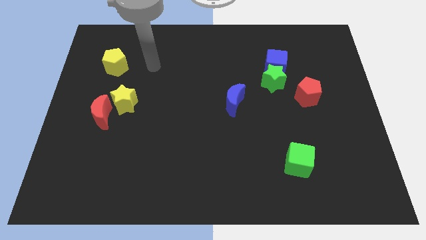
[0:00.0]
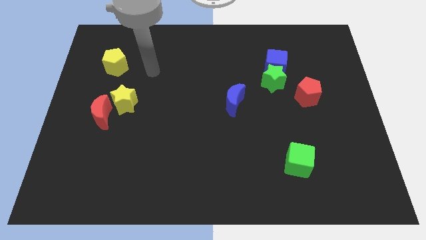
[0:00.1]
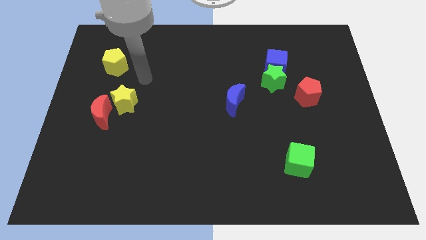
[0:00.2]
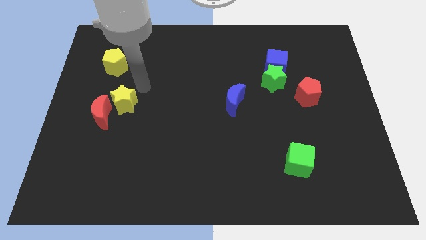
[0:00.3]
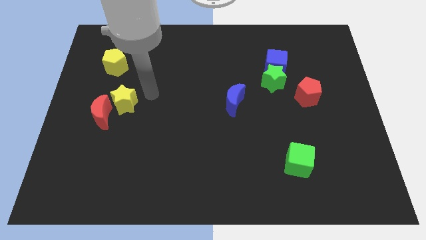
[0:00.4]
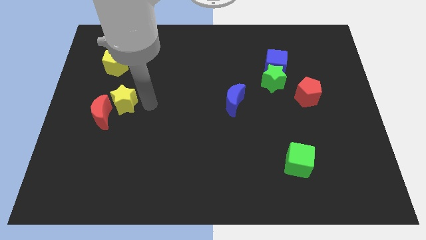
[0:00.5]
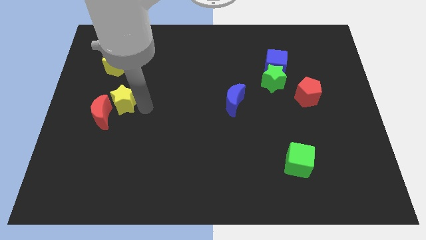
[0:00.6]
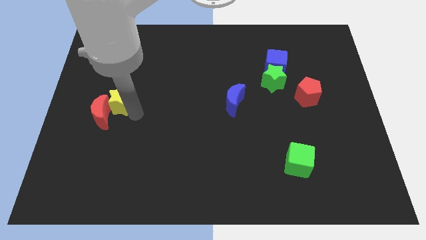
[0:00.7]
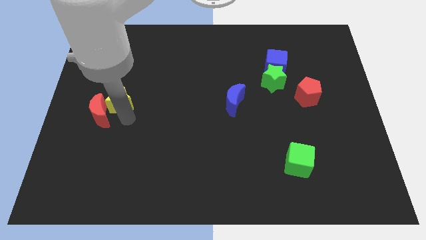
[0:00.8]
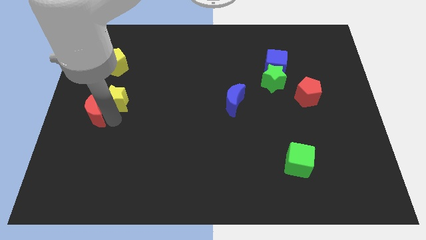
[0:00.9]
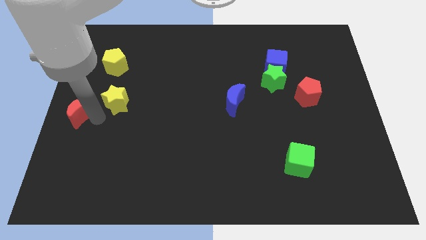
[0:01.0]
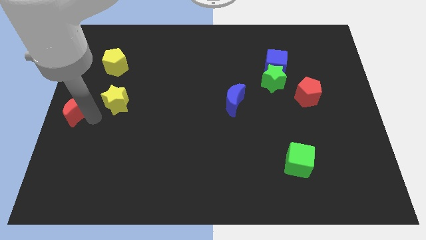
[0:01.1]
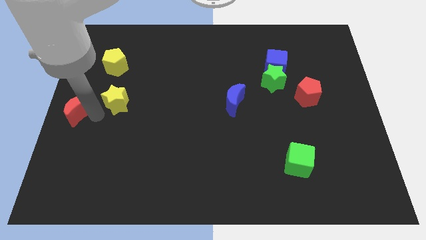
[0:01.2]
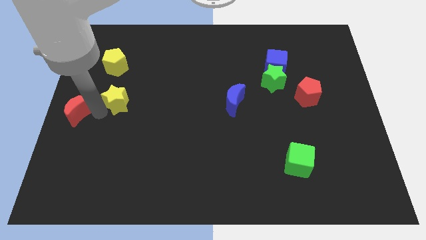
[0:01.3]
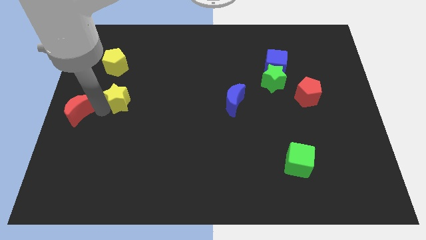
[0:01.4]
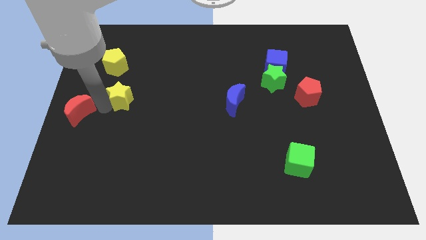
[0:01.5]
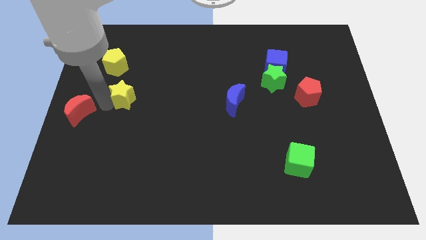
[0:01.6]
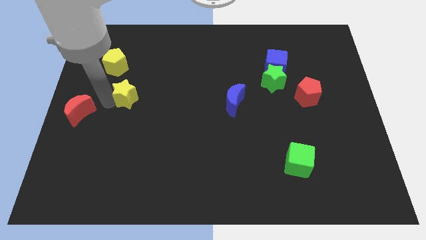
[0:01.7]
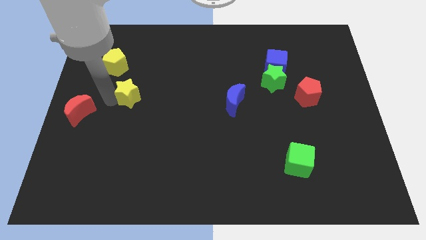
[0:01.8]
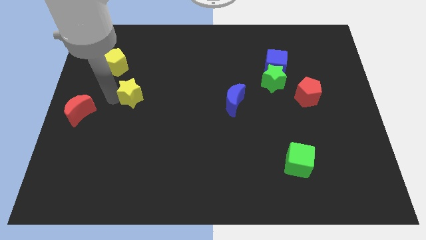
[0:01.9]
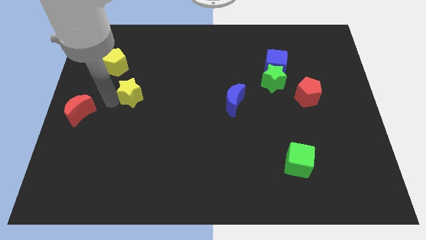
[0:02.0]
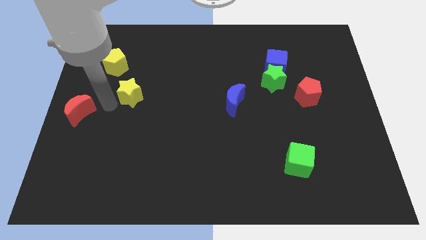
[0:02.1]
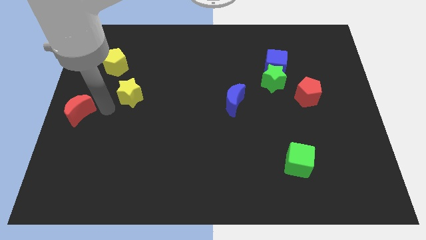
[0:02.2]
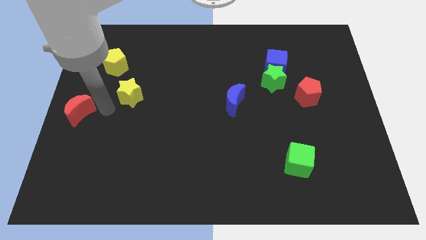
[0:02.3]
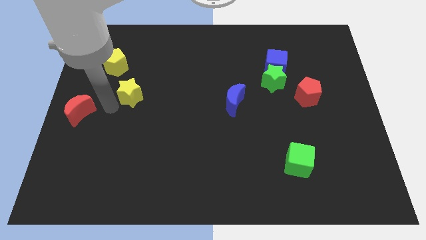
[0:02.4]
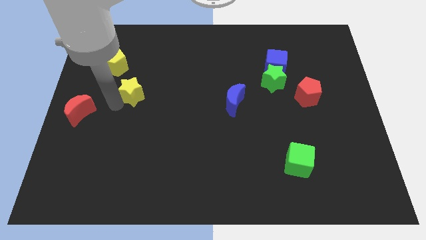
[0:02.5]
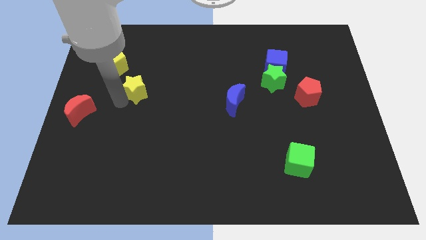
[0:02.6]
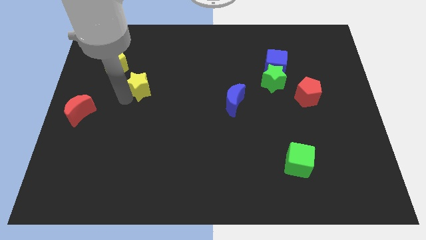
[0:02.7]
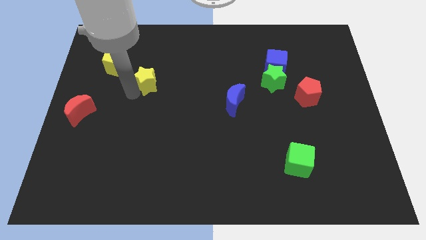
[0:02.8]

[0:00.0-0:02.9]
move the yellow star a little bit upwards and right diagonally

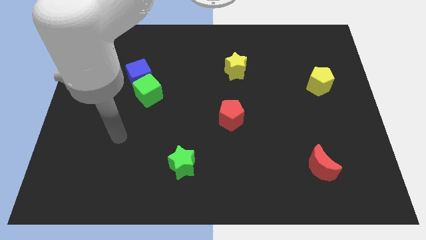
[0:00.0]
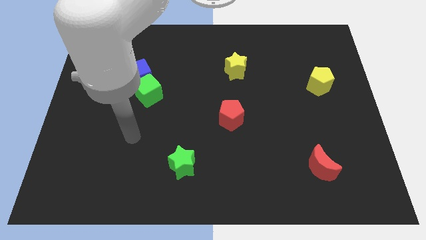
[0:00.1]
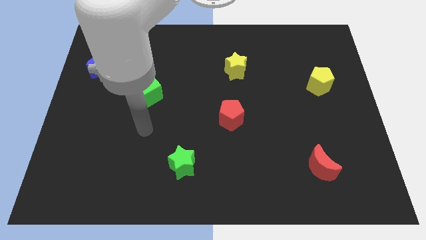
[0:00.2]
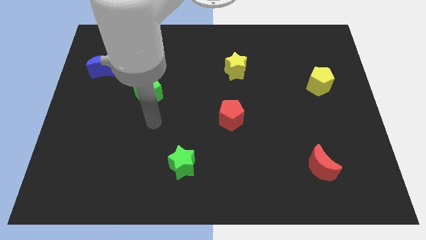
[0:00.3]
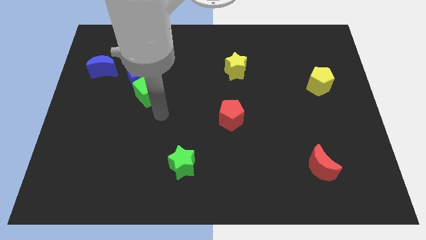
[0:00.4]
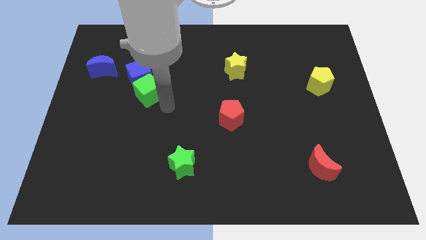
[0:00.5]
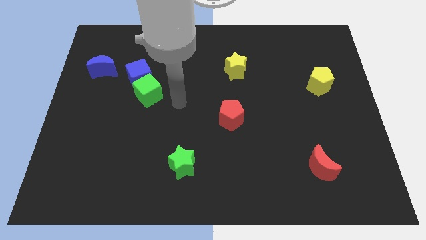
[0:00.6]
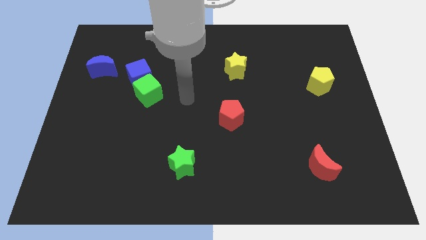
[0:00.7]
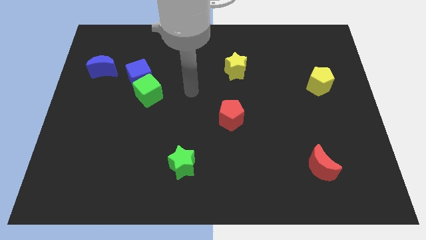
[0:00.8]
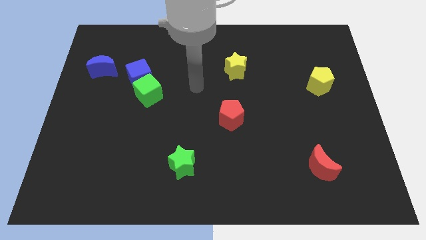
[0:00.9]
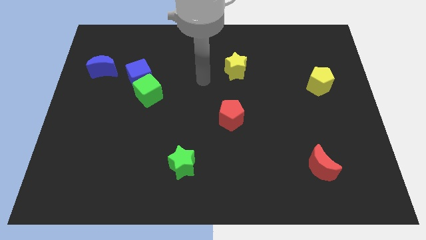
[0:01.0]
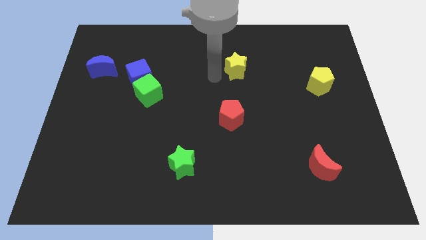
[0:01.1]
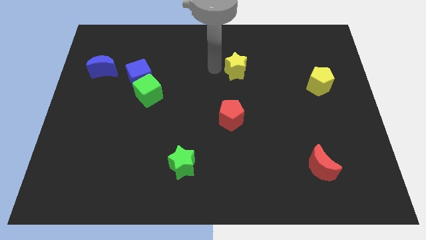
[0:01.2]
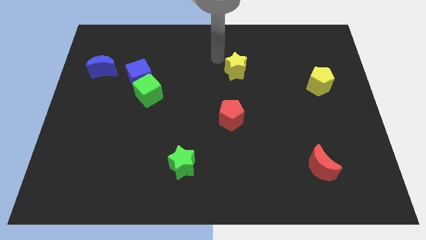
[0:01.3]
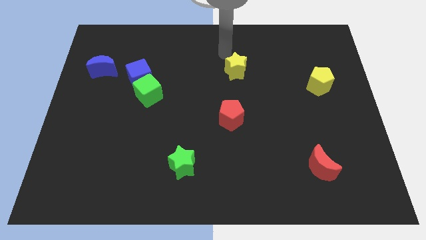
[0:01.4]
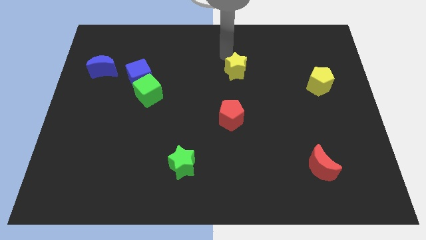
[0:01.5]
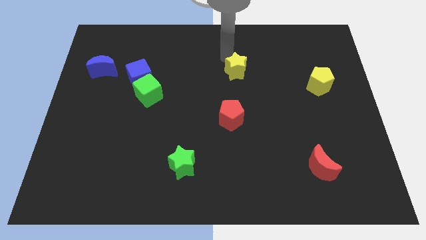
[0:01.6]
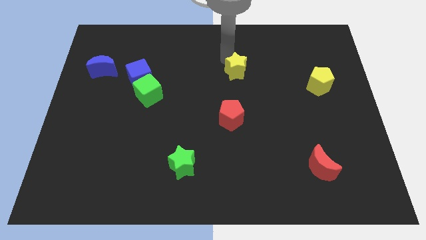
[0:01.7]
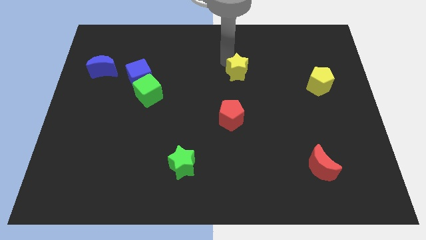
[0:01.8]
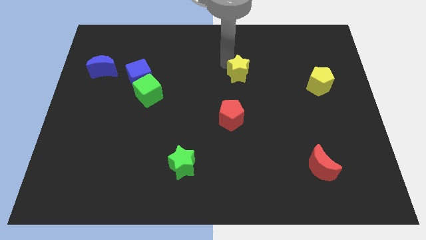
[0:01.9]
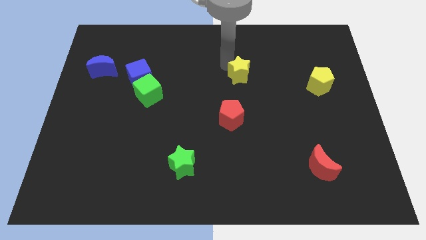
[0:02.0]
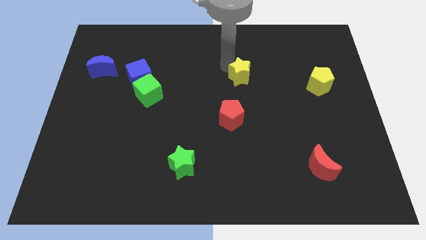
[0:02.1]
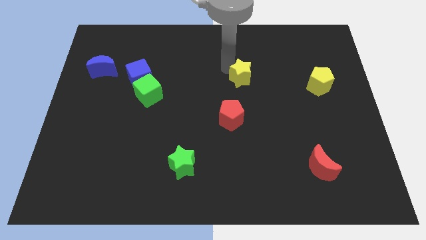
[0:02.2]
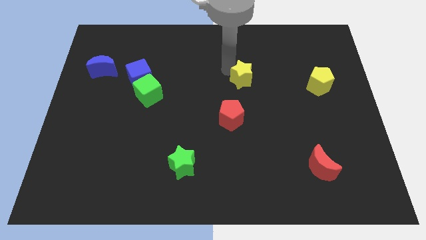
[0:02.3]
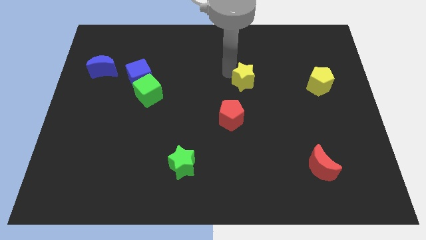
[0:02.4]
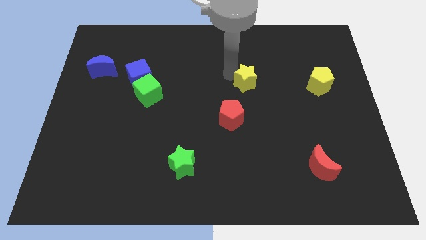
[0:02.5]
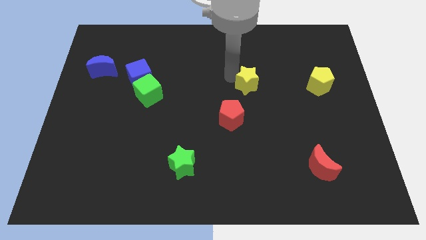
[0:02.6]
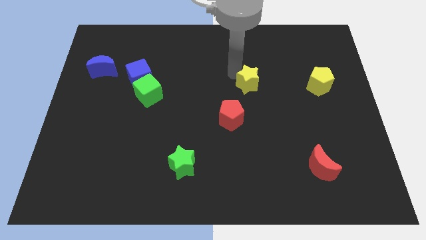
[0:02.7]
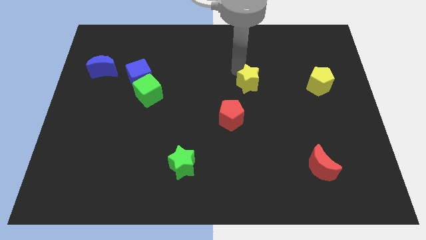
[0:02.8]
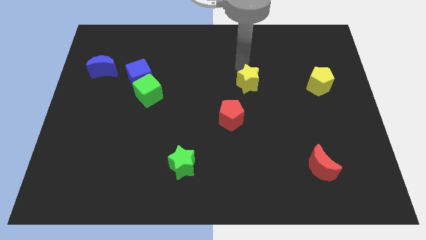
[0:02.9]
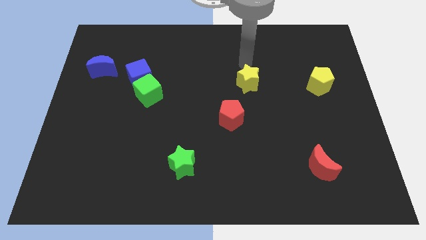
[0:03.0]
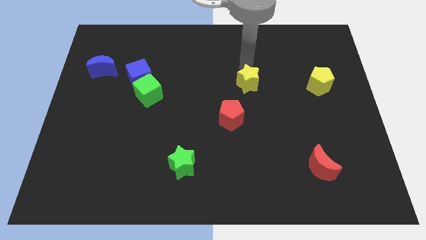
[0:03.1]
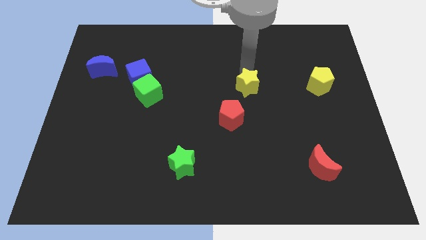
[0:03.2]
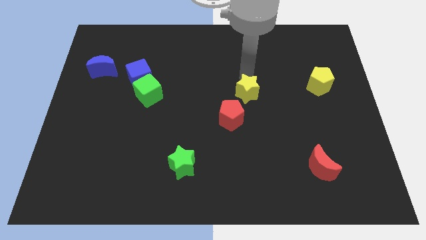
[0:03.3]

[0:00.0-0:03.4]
slightly push the yellow star down

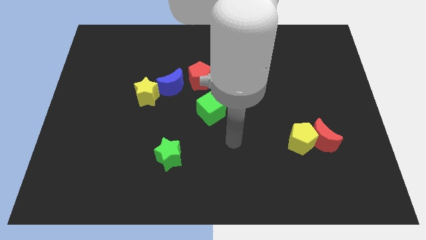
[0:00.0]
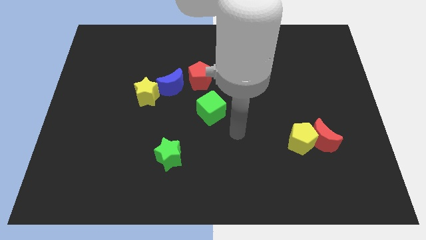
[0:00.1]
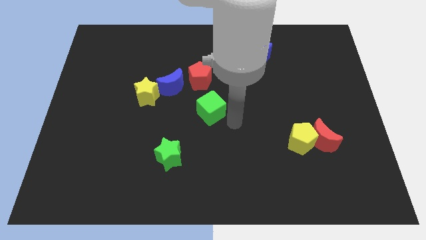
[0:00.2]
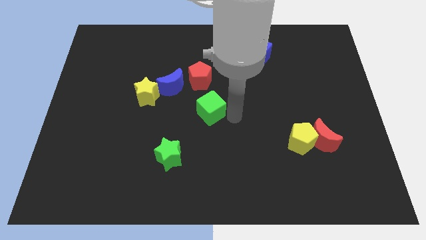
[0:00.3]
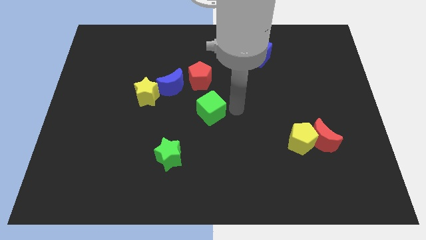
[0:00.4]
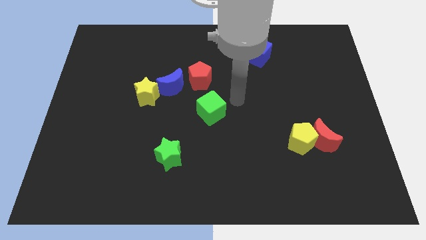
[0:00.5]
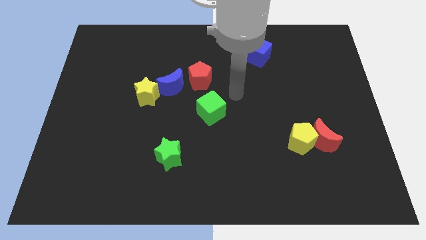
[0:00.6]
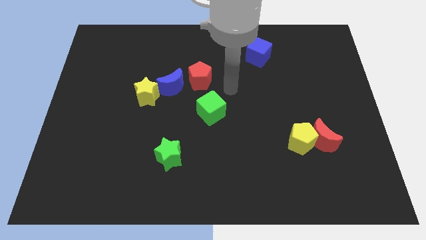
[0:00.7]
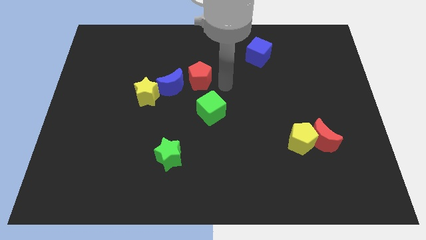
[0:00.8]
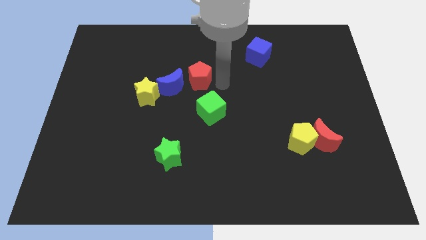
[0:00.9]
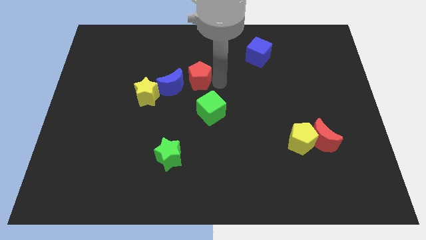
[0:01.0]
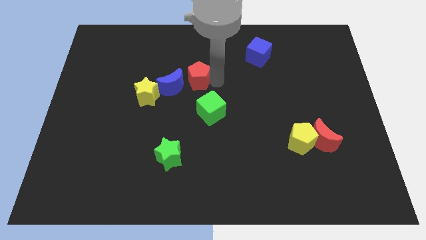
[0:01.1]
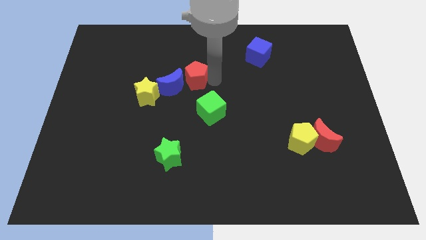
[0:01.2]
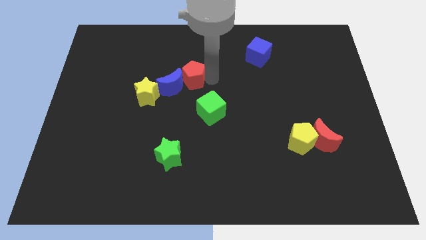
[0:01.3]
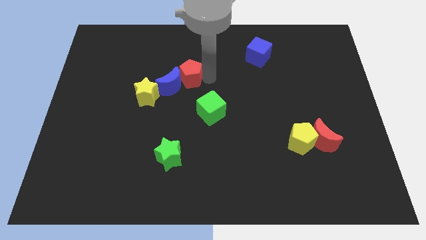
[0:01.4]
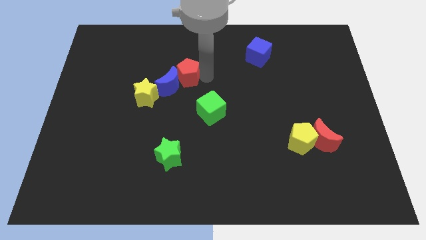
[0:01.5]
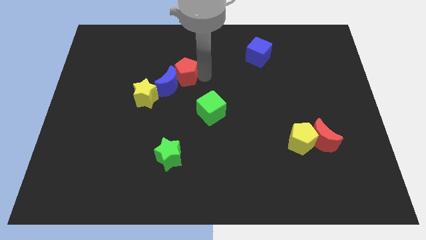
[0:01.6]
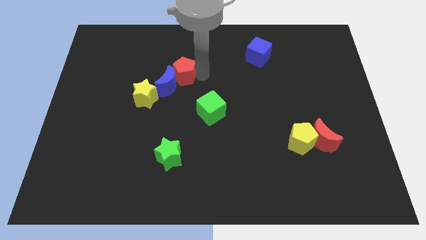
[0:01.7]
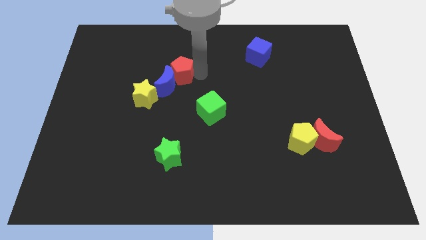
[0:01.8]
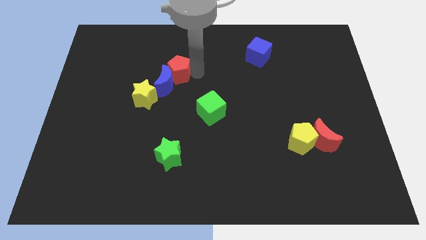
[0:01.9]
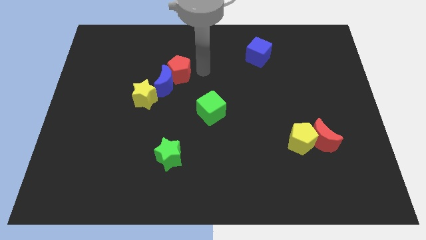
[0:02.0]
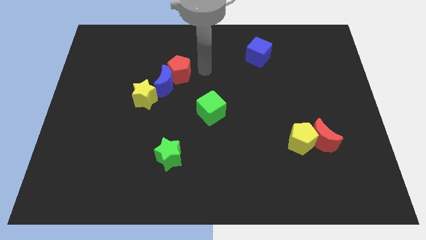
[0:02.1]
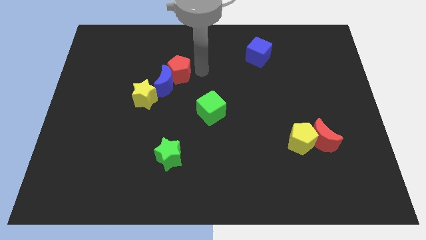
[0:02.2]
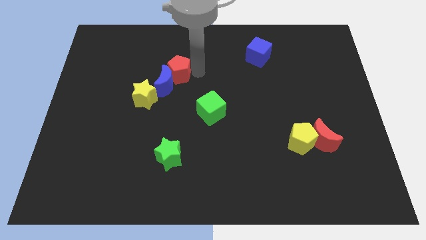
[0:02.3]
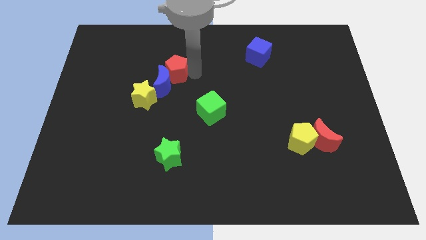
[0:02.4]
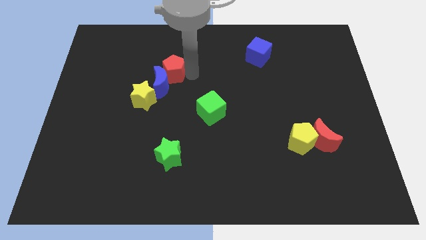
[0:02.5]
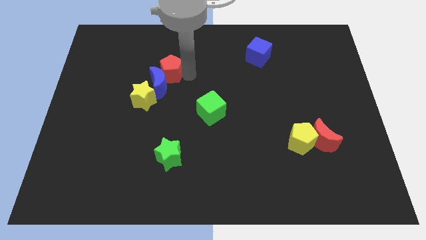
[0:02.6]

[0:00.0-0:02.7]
slide the red pentagon somewhat left
